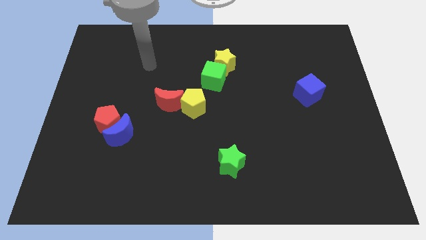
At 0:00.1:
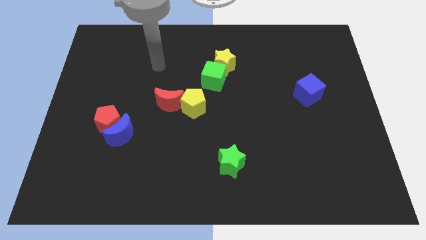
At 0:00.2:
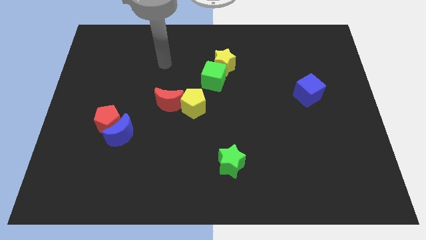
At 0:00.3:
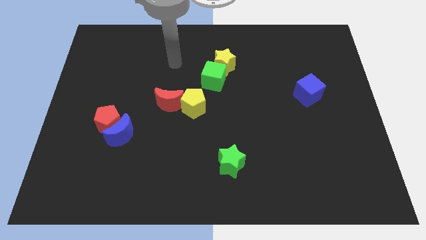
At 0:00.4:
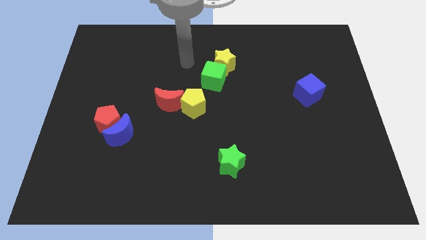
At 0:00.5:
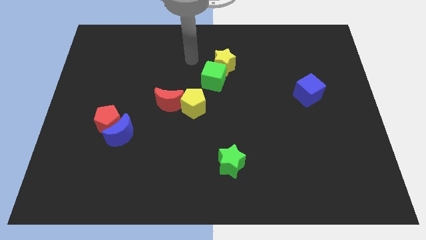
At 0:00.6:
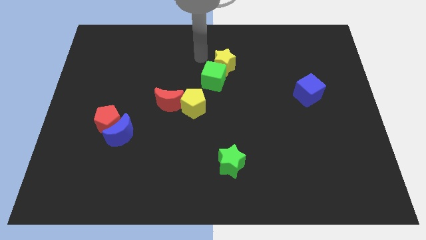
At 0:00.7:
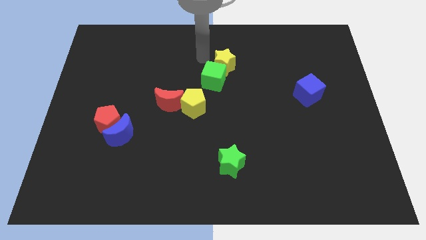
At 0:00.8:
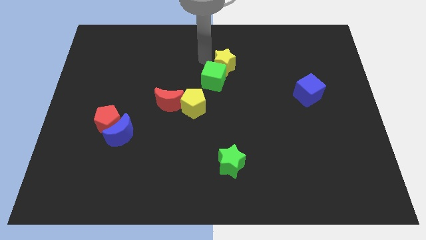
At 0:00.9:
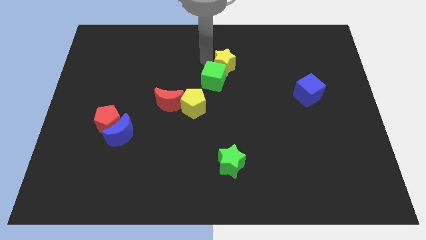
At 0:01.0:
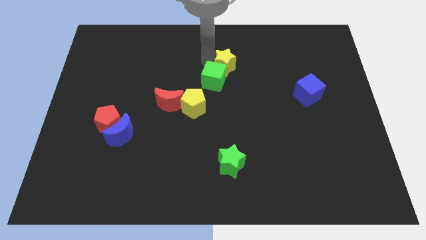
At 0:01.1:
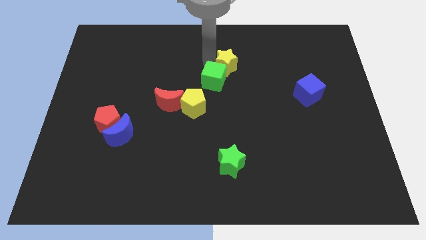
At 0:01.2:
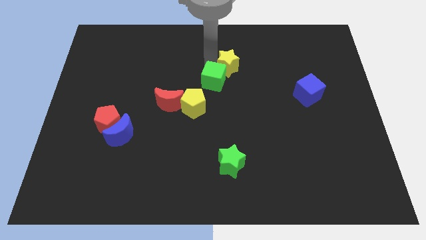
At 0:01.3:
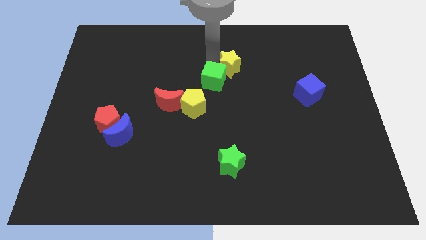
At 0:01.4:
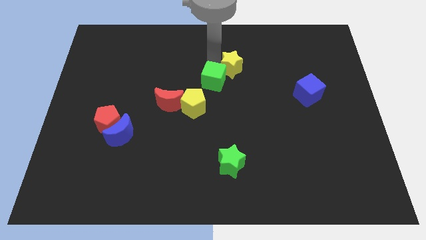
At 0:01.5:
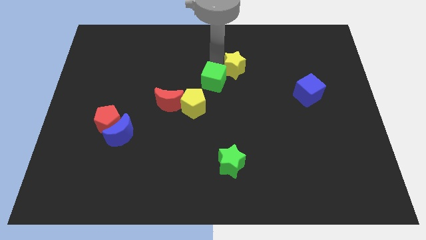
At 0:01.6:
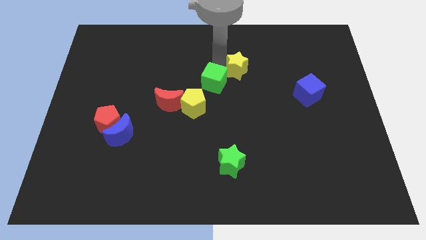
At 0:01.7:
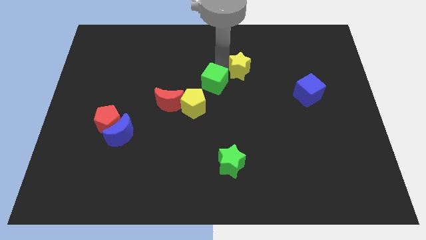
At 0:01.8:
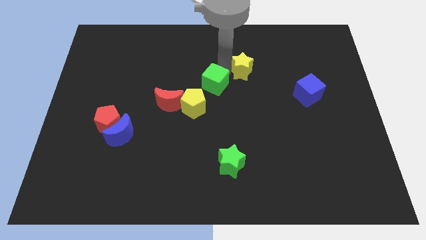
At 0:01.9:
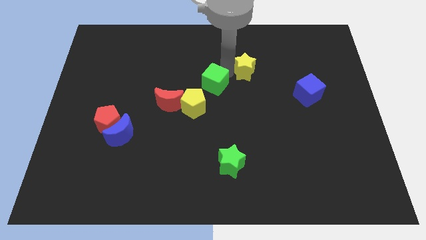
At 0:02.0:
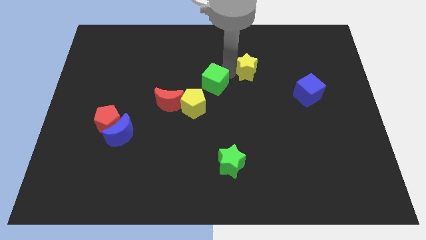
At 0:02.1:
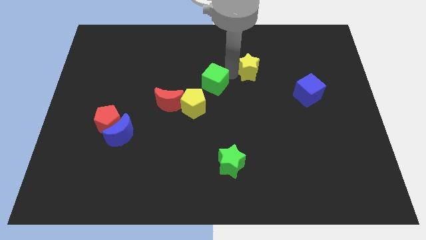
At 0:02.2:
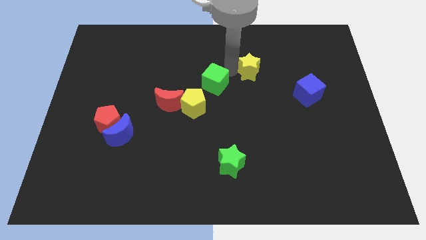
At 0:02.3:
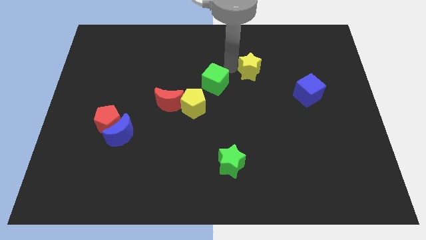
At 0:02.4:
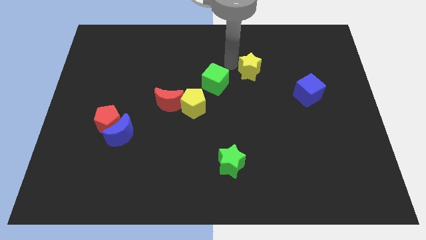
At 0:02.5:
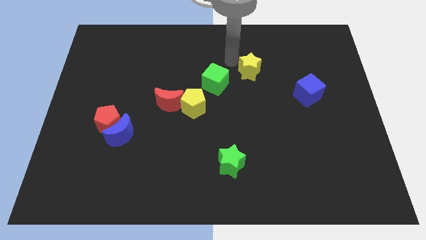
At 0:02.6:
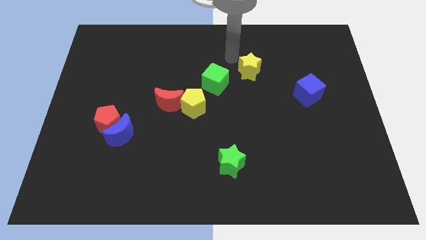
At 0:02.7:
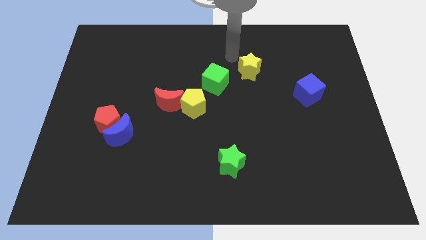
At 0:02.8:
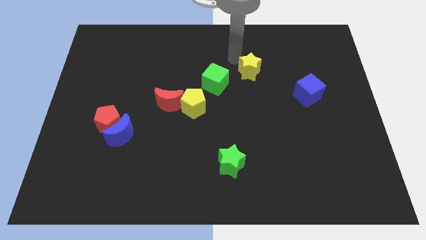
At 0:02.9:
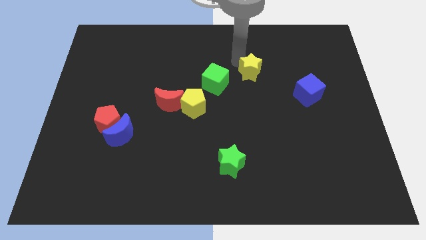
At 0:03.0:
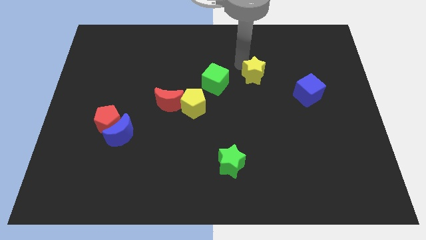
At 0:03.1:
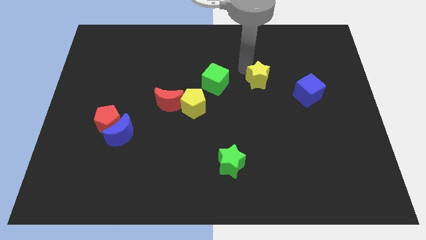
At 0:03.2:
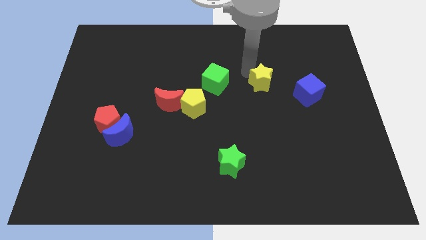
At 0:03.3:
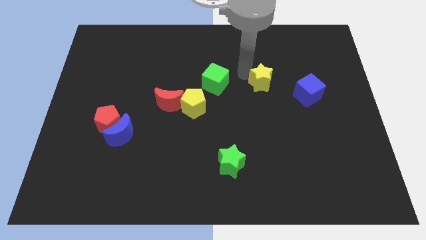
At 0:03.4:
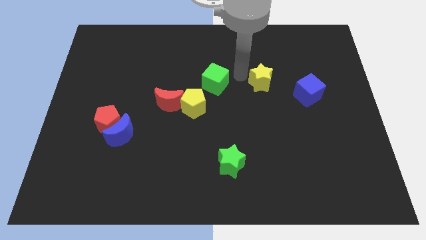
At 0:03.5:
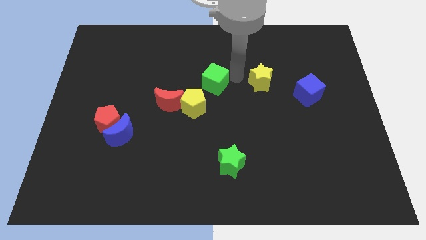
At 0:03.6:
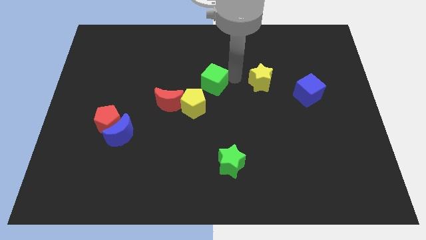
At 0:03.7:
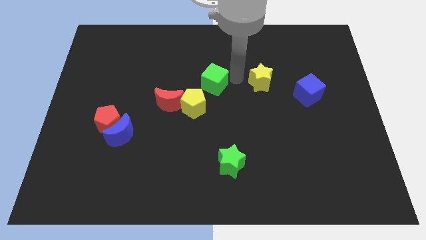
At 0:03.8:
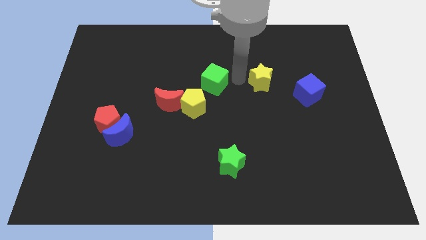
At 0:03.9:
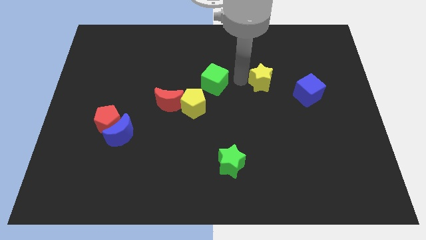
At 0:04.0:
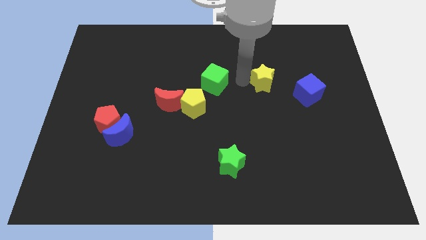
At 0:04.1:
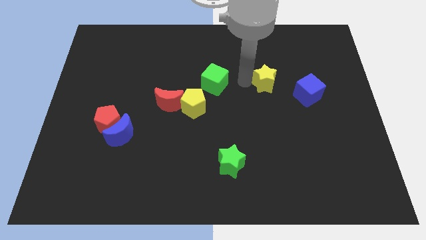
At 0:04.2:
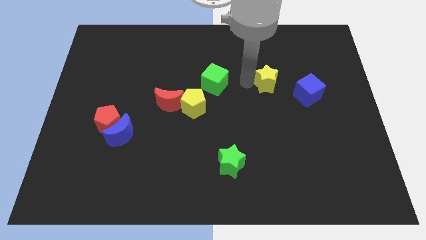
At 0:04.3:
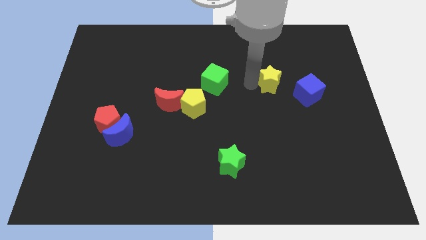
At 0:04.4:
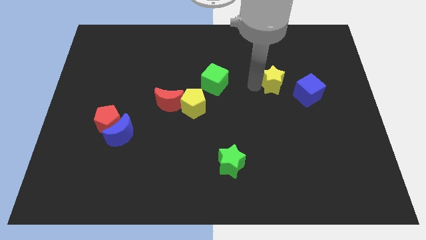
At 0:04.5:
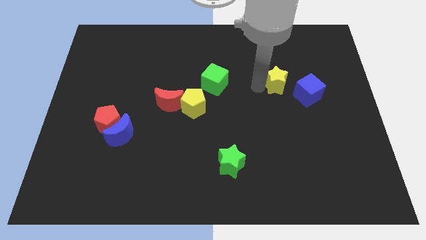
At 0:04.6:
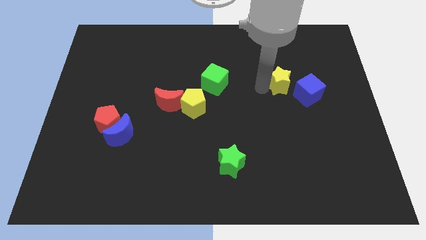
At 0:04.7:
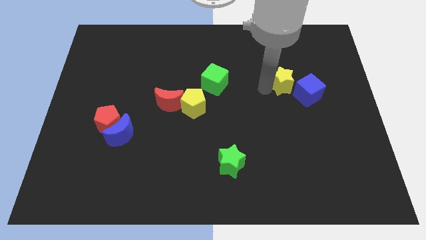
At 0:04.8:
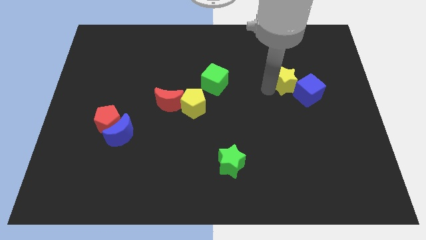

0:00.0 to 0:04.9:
move the yellow star close to the blue cube

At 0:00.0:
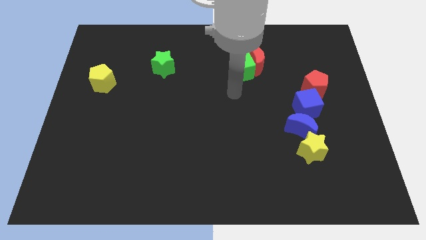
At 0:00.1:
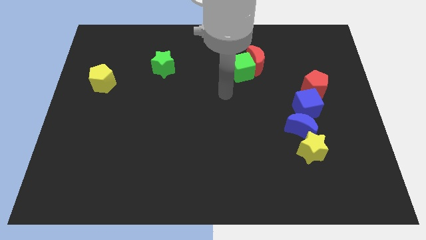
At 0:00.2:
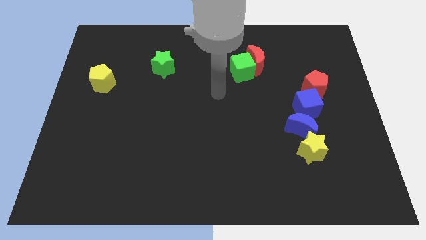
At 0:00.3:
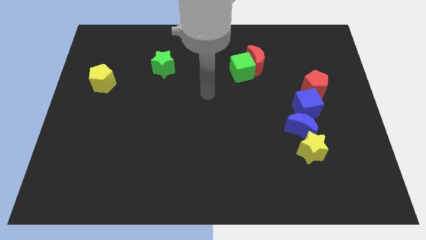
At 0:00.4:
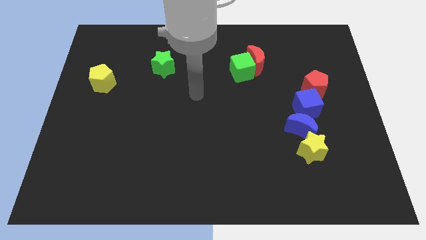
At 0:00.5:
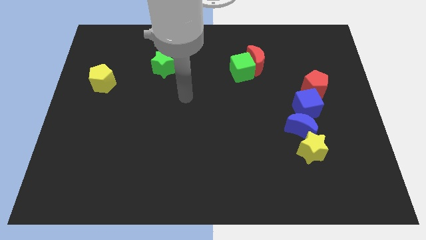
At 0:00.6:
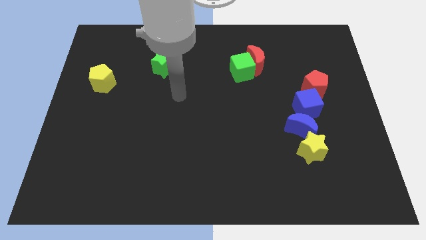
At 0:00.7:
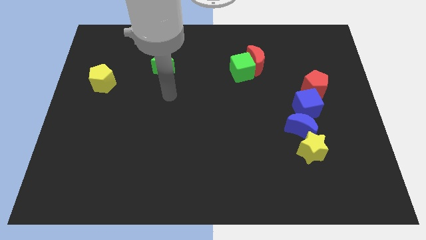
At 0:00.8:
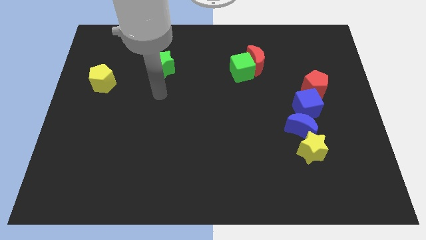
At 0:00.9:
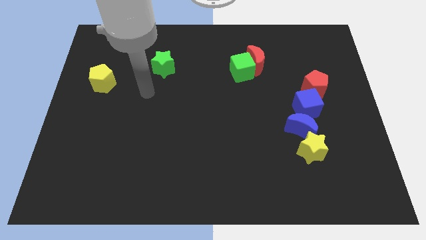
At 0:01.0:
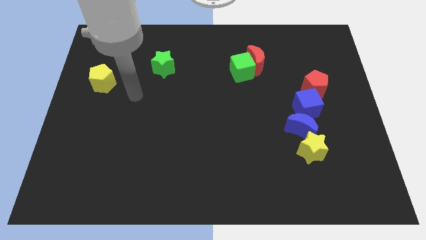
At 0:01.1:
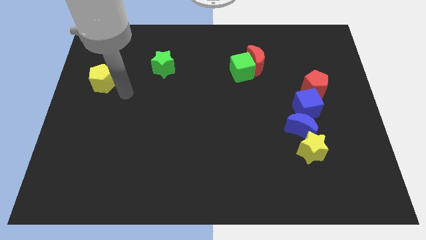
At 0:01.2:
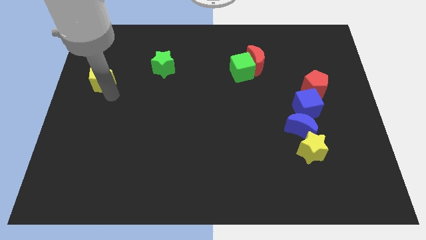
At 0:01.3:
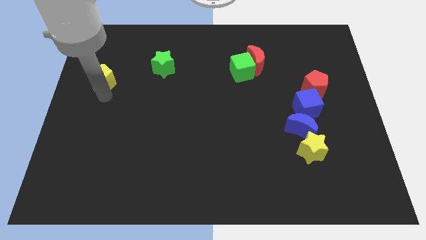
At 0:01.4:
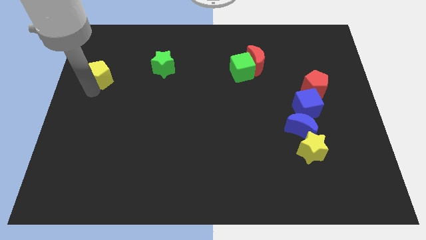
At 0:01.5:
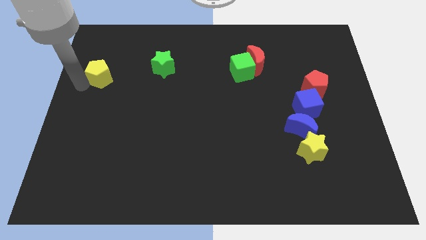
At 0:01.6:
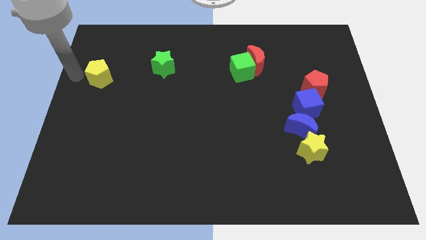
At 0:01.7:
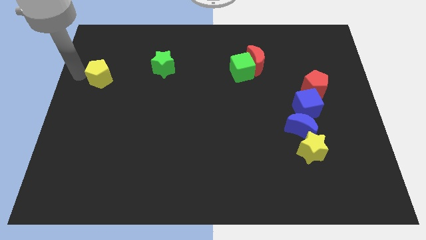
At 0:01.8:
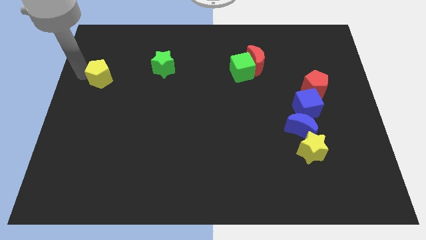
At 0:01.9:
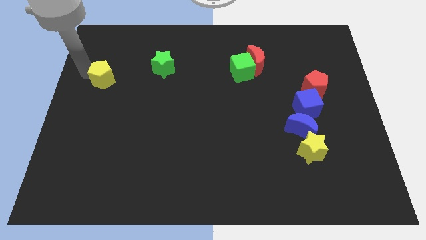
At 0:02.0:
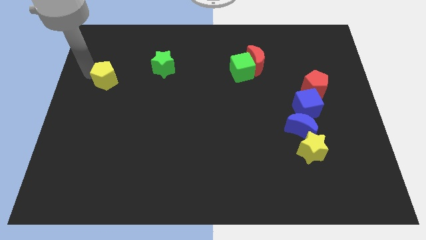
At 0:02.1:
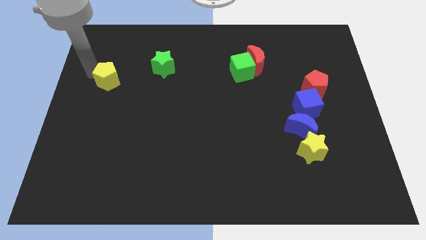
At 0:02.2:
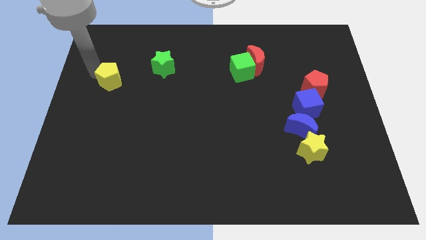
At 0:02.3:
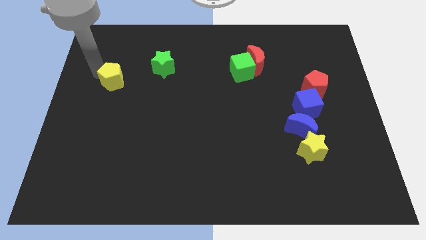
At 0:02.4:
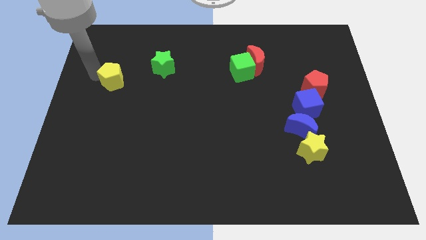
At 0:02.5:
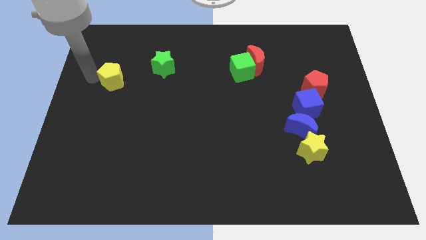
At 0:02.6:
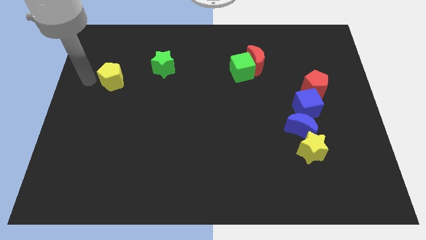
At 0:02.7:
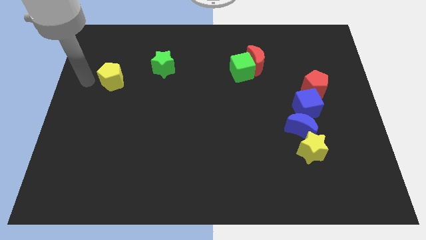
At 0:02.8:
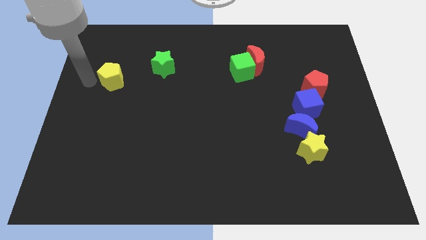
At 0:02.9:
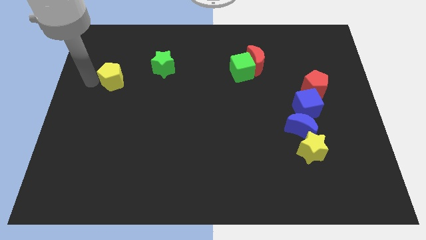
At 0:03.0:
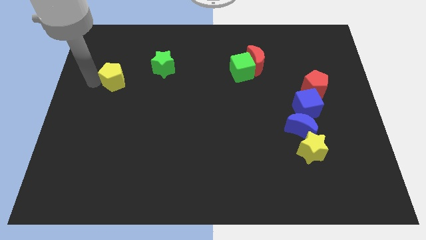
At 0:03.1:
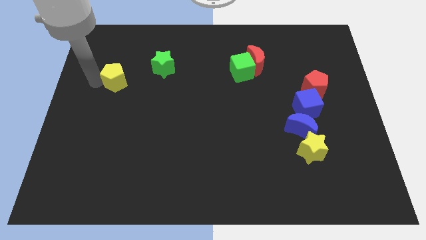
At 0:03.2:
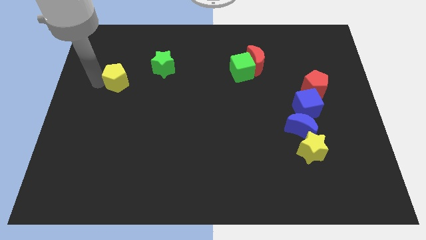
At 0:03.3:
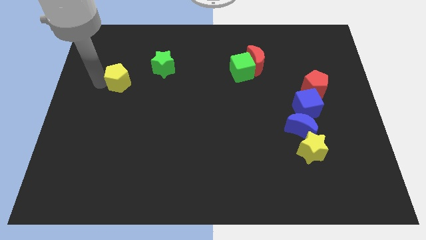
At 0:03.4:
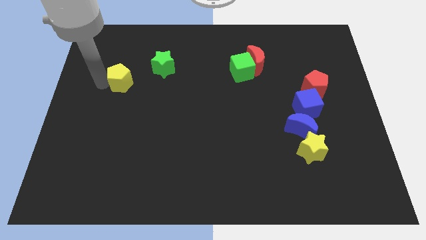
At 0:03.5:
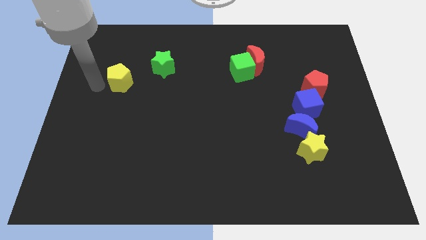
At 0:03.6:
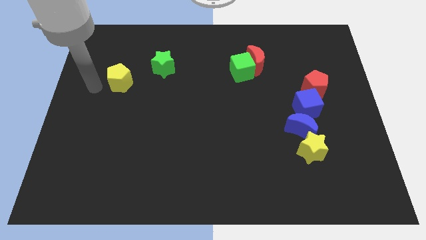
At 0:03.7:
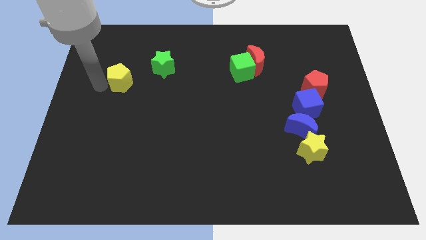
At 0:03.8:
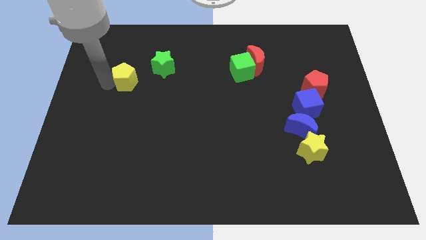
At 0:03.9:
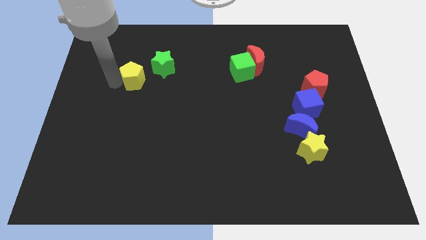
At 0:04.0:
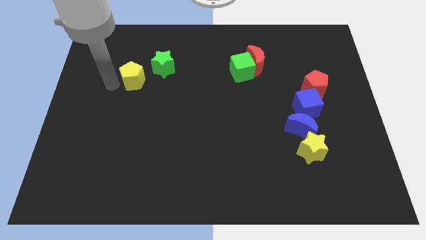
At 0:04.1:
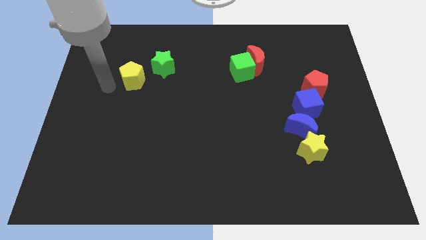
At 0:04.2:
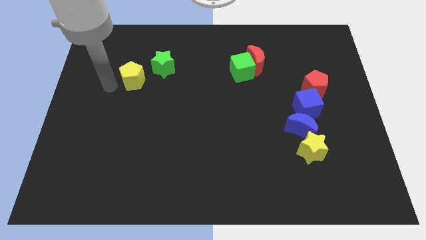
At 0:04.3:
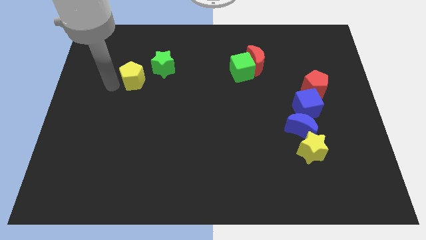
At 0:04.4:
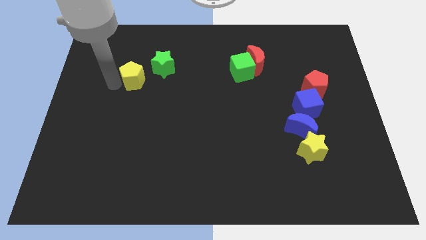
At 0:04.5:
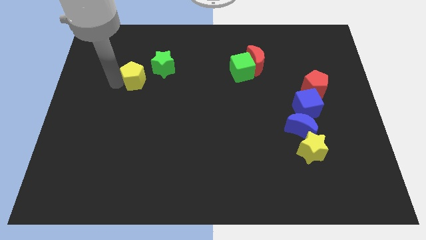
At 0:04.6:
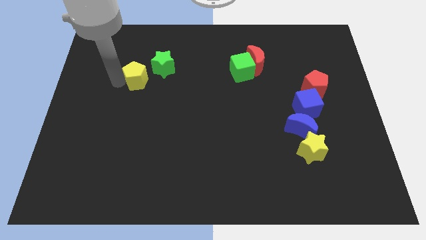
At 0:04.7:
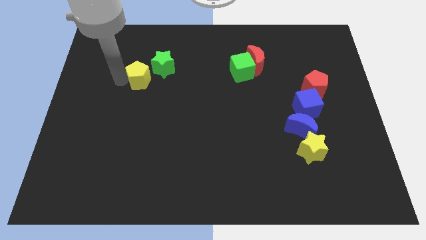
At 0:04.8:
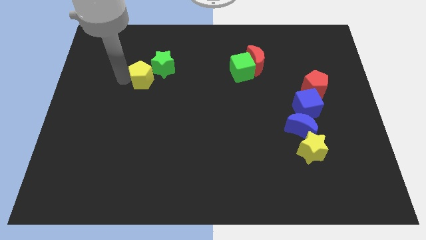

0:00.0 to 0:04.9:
move the yellow pentagon next to the green star
